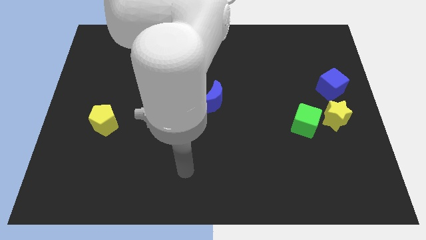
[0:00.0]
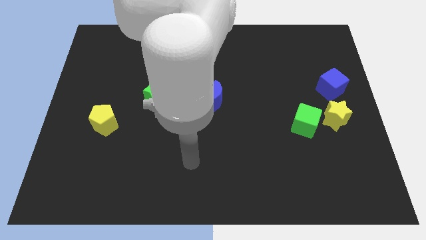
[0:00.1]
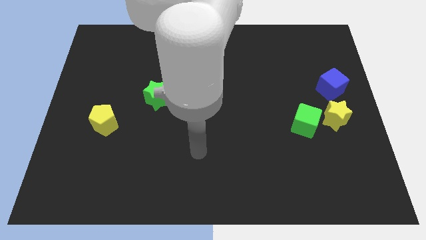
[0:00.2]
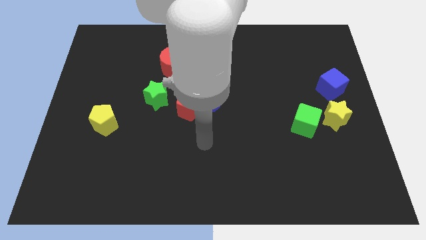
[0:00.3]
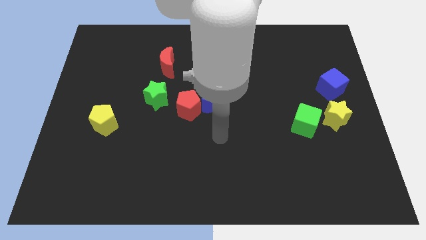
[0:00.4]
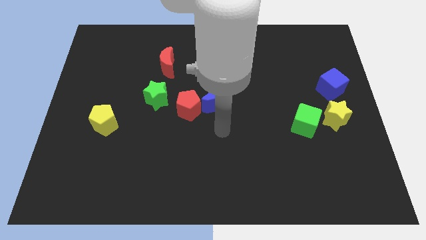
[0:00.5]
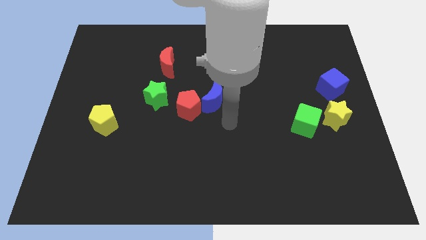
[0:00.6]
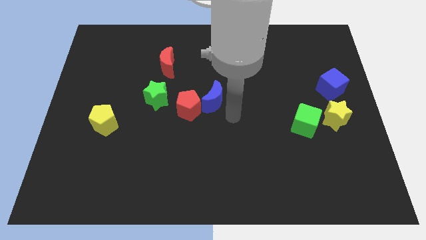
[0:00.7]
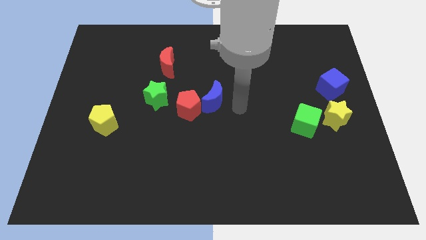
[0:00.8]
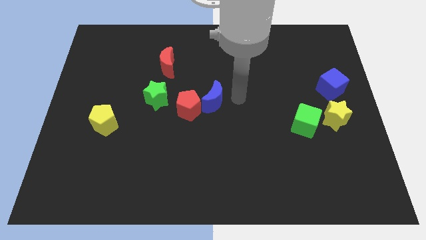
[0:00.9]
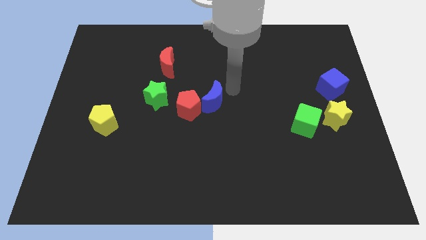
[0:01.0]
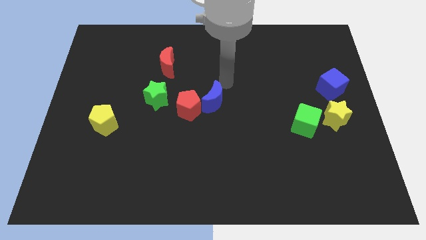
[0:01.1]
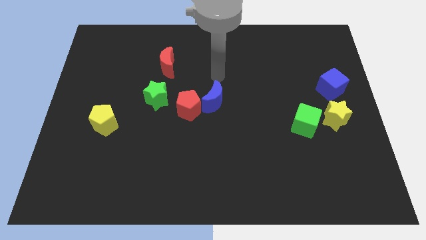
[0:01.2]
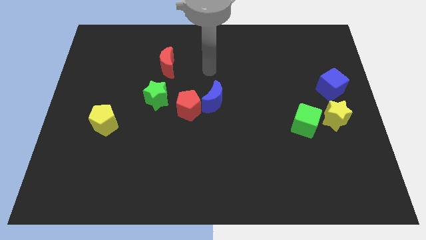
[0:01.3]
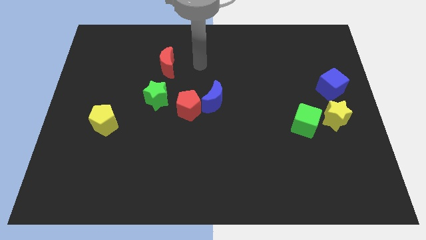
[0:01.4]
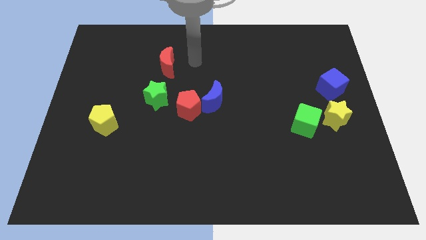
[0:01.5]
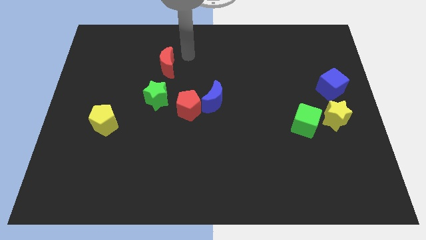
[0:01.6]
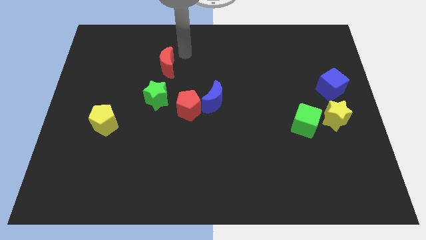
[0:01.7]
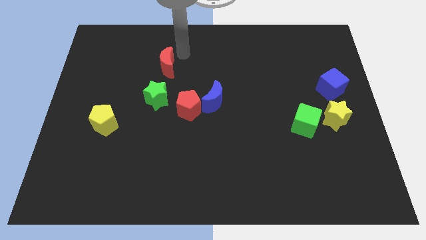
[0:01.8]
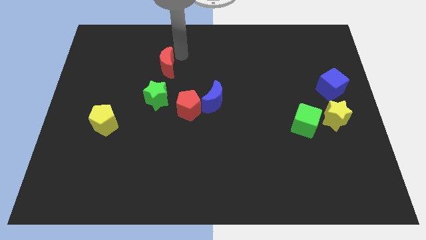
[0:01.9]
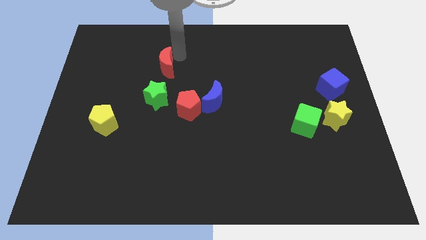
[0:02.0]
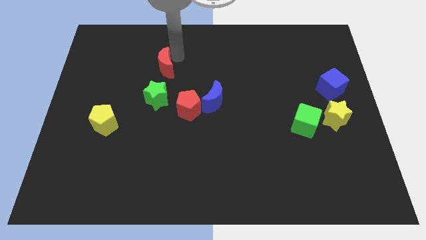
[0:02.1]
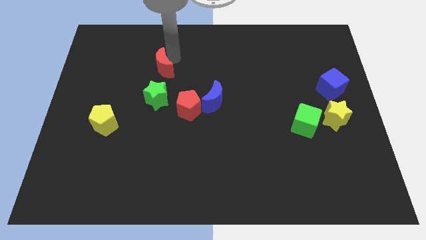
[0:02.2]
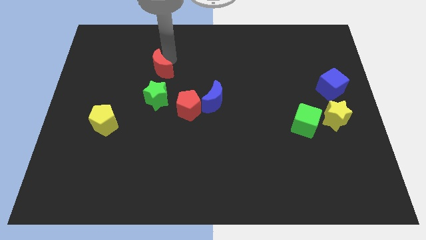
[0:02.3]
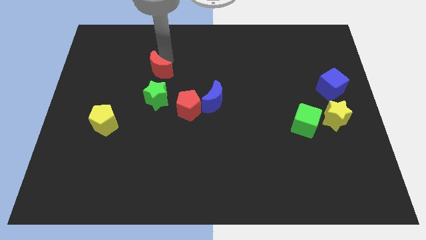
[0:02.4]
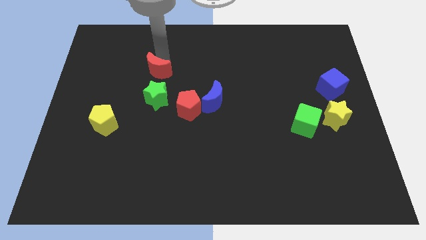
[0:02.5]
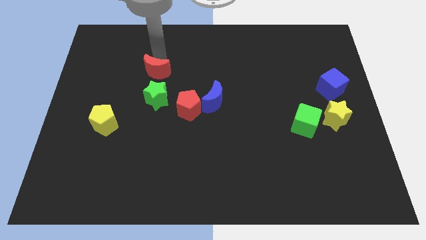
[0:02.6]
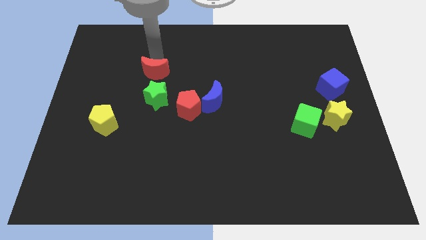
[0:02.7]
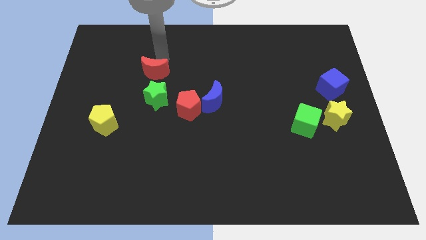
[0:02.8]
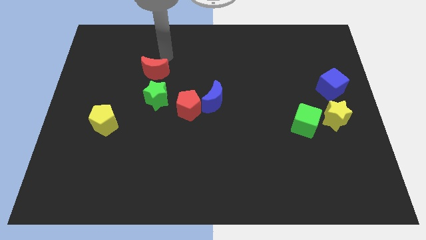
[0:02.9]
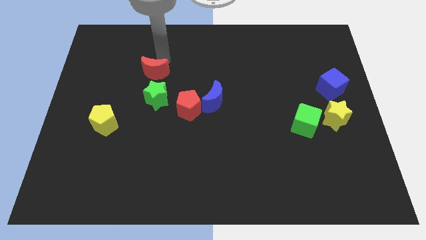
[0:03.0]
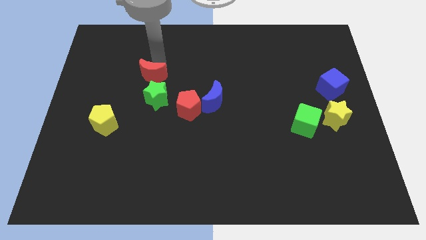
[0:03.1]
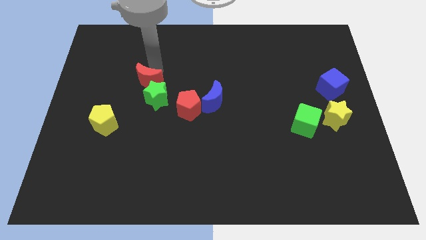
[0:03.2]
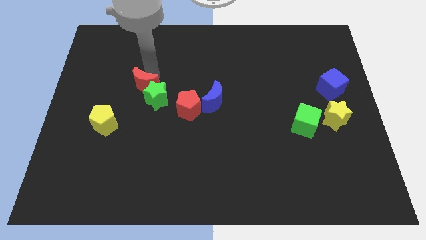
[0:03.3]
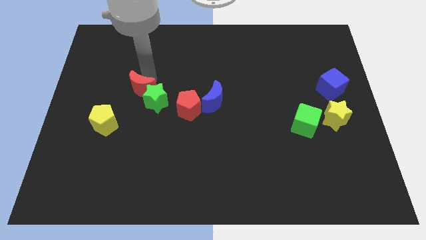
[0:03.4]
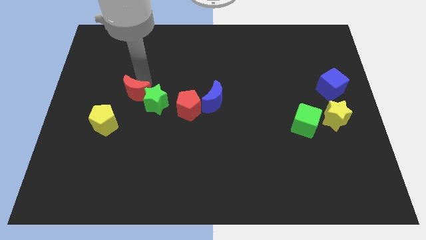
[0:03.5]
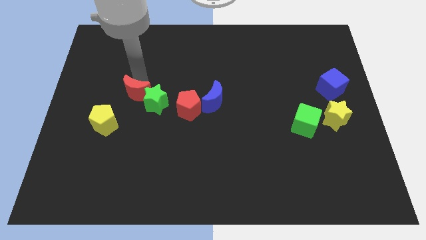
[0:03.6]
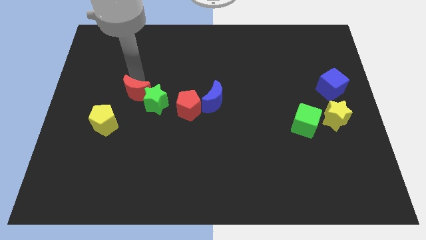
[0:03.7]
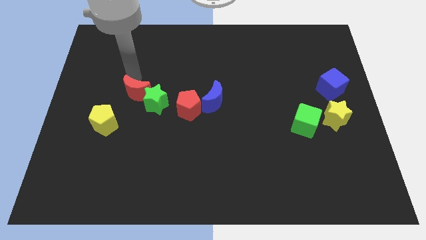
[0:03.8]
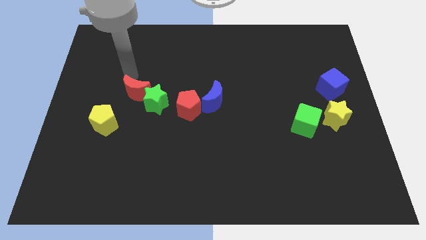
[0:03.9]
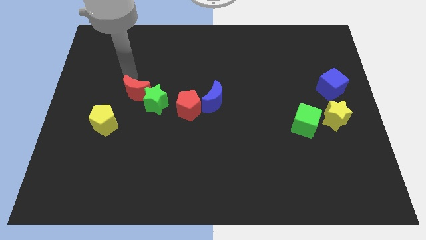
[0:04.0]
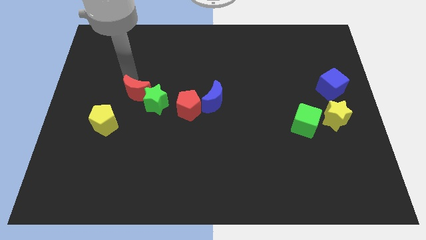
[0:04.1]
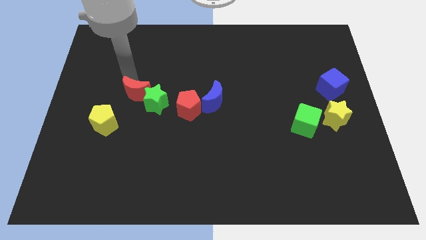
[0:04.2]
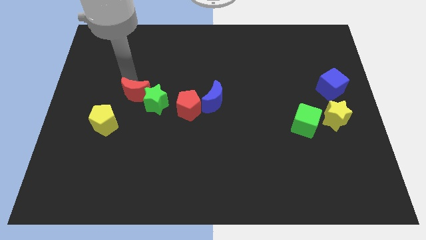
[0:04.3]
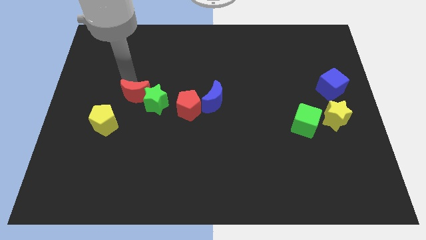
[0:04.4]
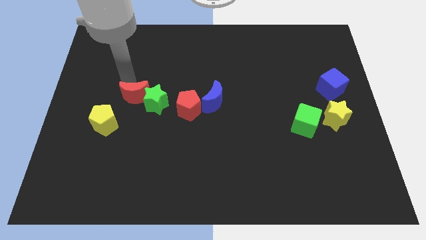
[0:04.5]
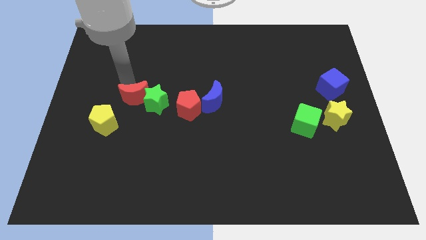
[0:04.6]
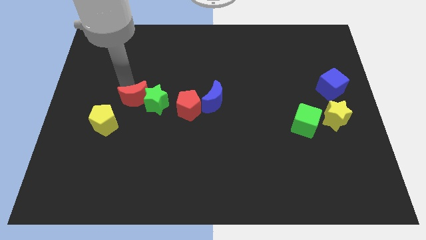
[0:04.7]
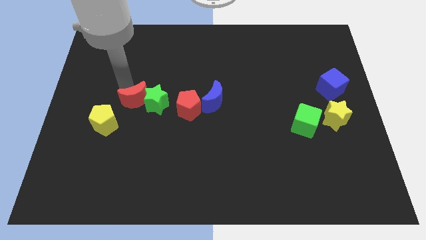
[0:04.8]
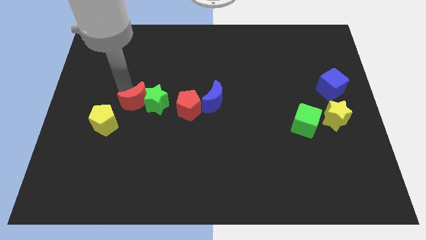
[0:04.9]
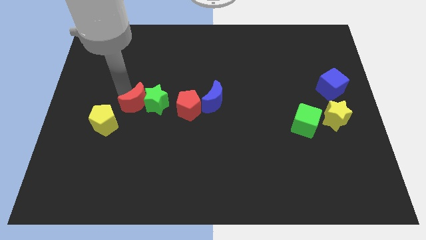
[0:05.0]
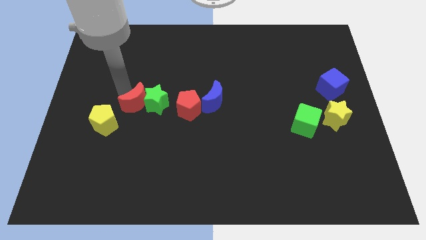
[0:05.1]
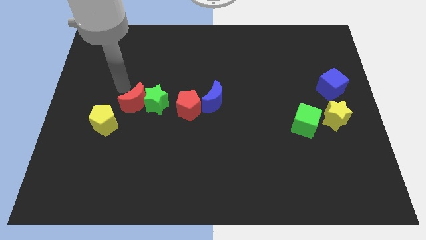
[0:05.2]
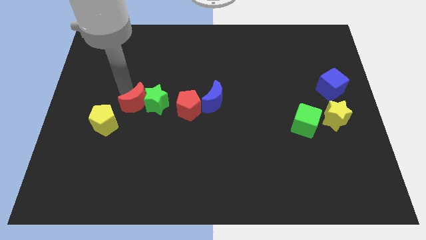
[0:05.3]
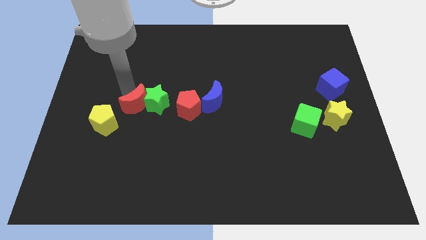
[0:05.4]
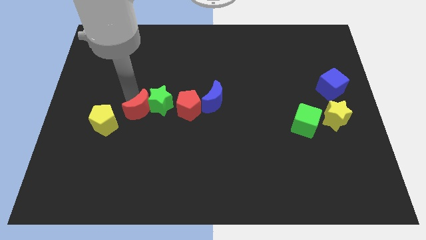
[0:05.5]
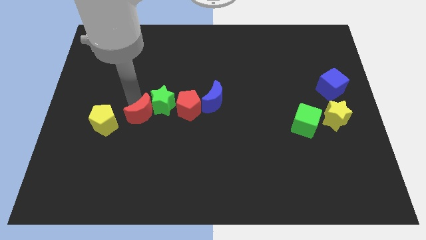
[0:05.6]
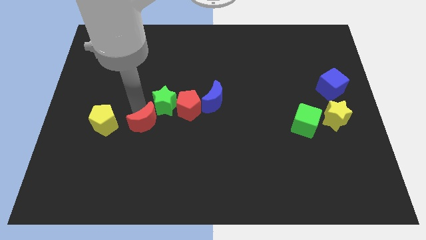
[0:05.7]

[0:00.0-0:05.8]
slide the red moon to the bottom side of the green star

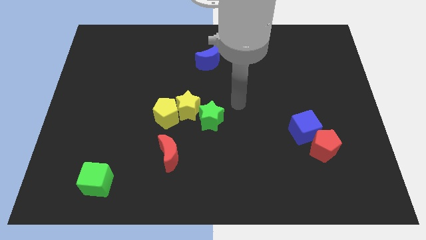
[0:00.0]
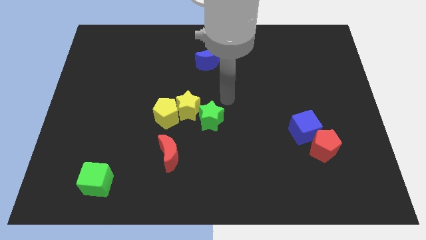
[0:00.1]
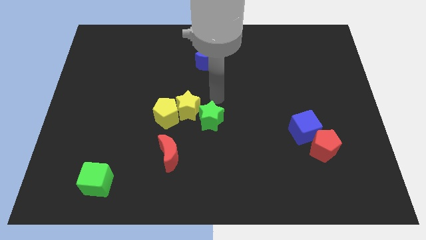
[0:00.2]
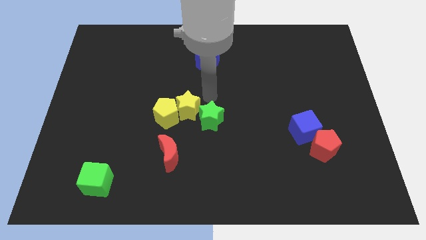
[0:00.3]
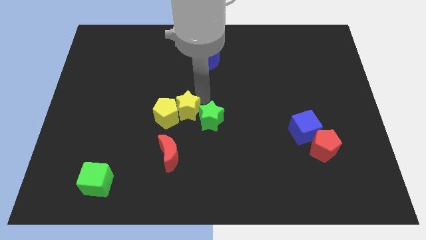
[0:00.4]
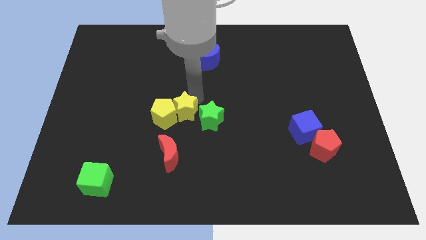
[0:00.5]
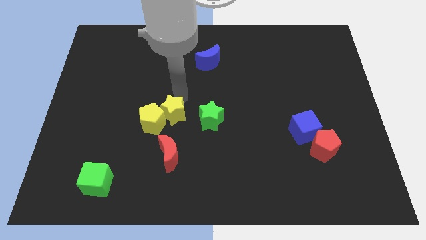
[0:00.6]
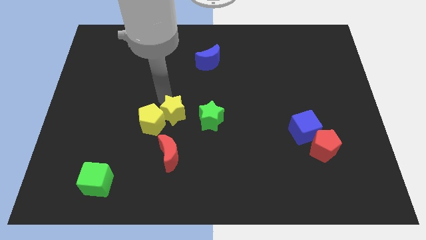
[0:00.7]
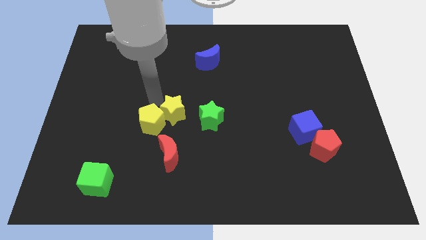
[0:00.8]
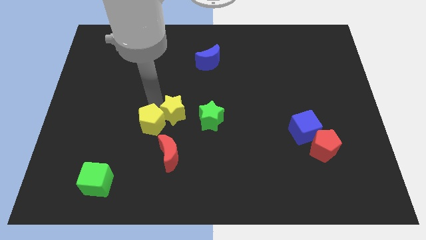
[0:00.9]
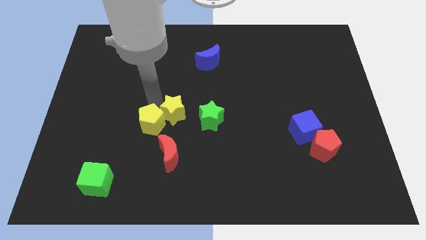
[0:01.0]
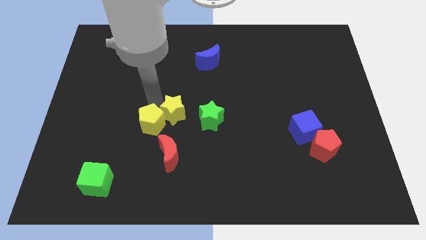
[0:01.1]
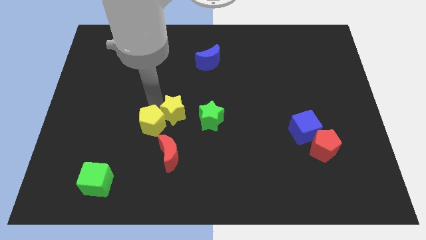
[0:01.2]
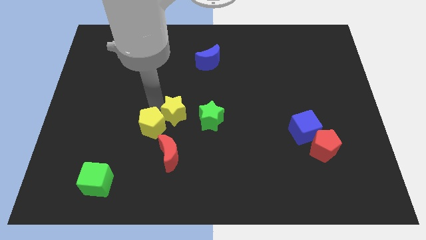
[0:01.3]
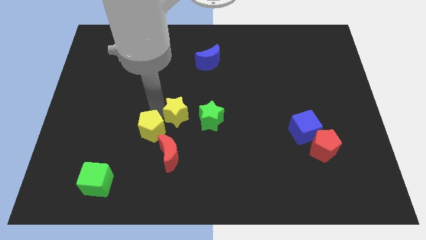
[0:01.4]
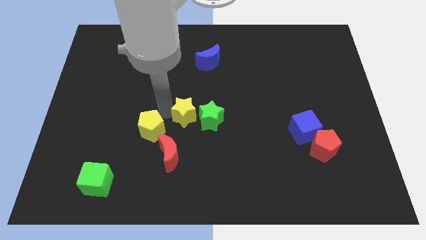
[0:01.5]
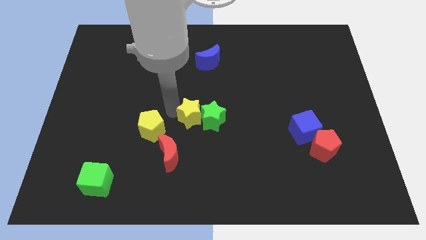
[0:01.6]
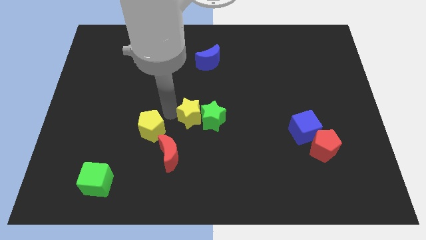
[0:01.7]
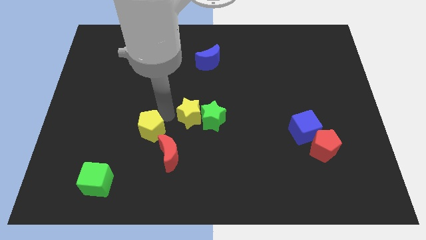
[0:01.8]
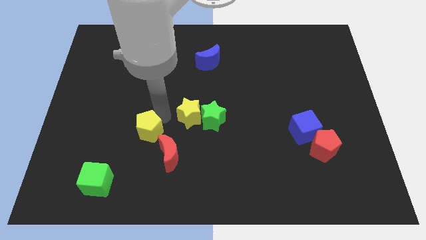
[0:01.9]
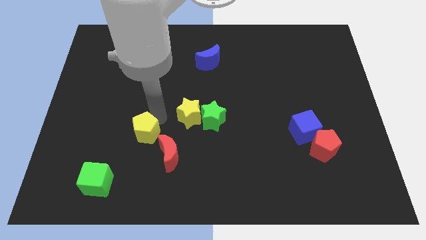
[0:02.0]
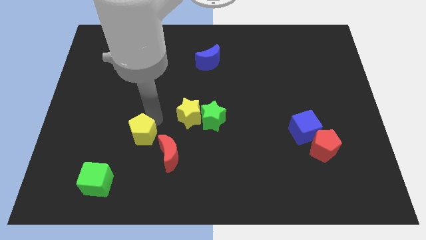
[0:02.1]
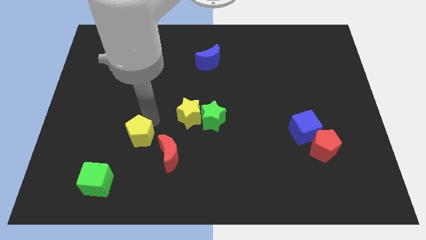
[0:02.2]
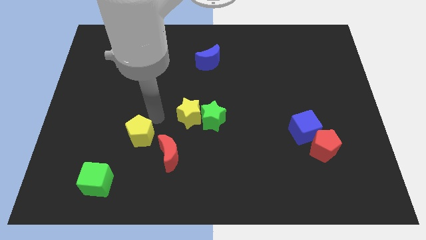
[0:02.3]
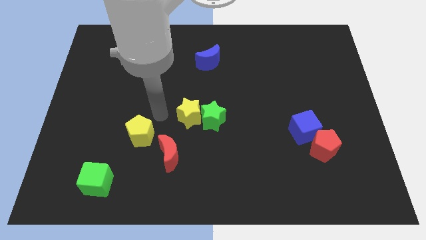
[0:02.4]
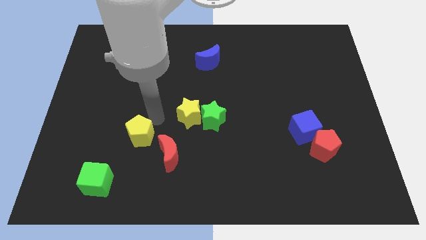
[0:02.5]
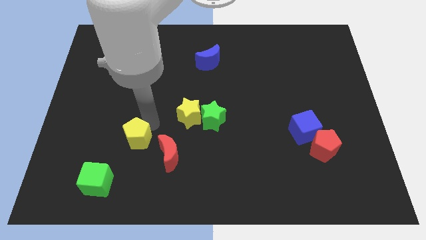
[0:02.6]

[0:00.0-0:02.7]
slide the yellow pentagon to the left side of the red moon
